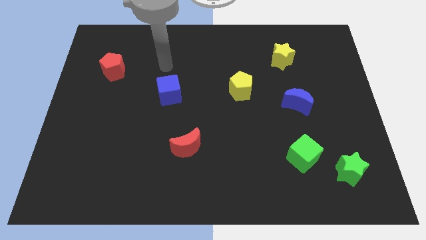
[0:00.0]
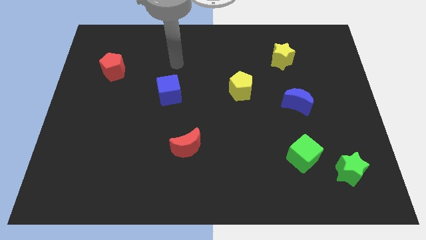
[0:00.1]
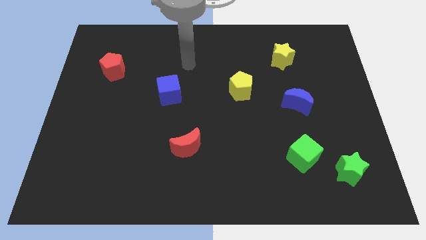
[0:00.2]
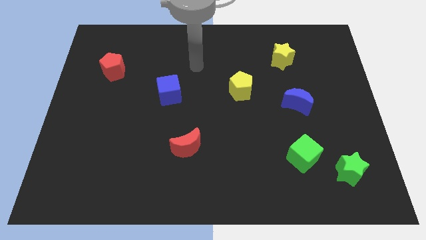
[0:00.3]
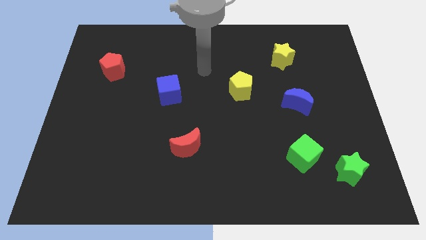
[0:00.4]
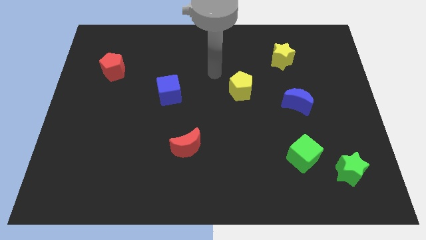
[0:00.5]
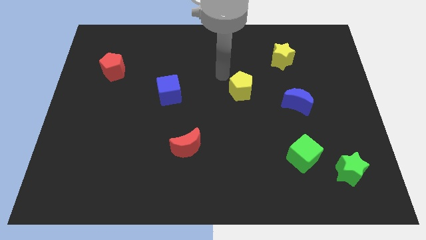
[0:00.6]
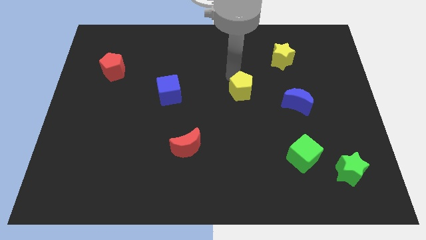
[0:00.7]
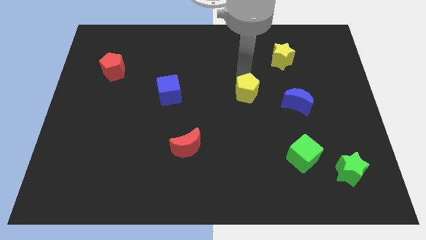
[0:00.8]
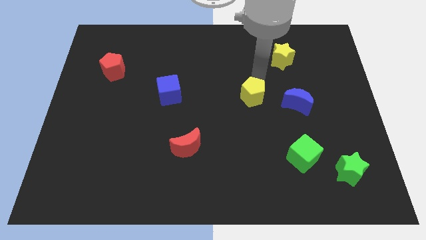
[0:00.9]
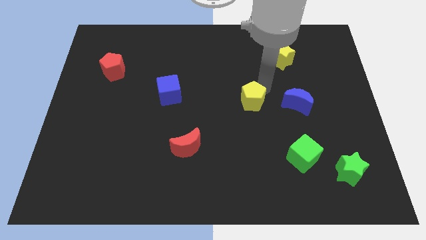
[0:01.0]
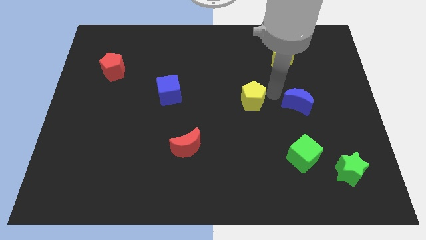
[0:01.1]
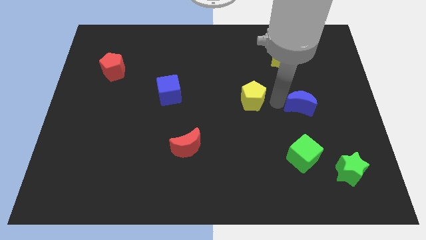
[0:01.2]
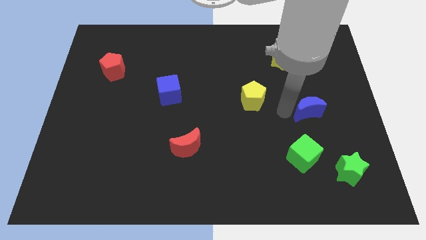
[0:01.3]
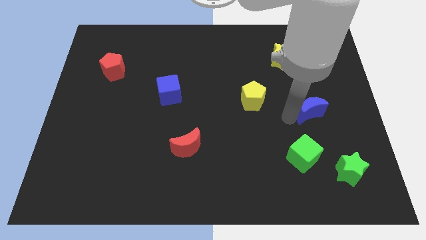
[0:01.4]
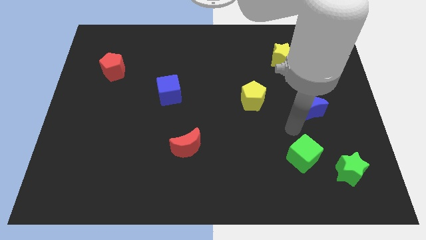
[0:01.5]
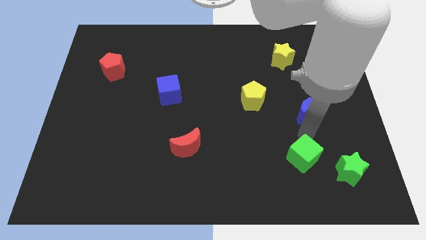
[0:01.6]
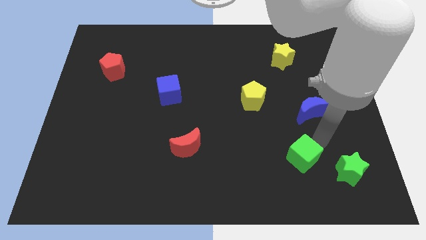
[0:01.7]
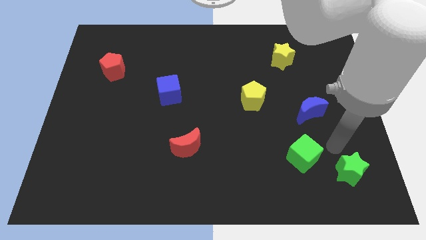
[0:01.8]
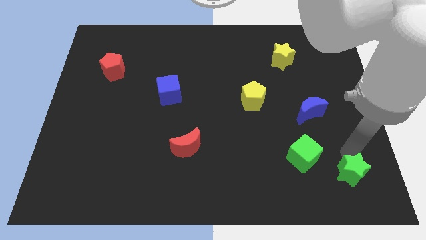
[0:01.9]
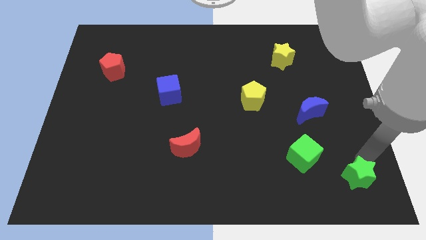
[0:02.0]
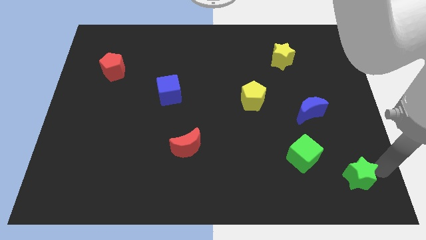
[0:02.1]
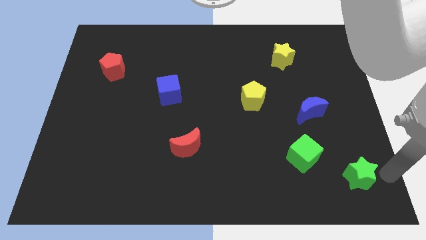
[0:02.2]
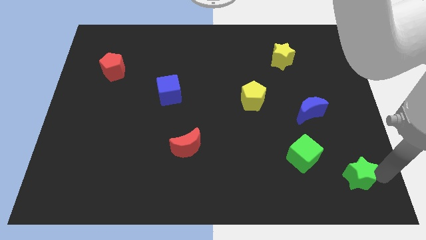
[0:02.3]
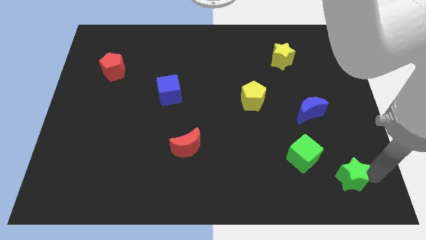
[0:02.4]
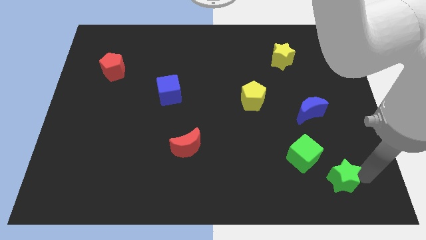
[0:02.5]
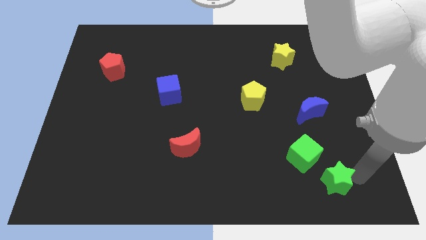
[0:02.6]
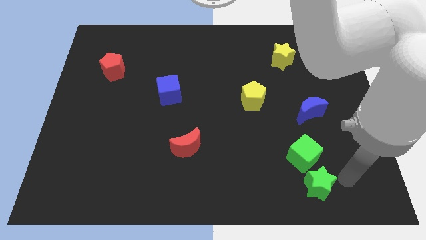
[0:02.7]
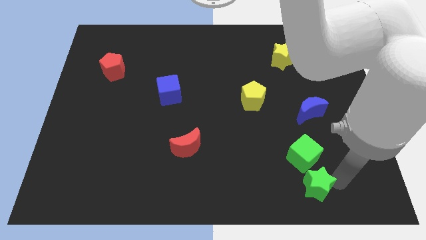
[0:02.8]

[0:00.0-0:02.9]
slightly push the green star to the left

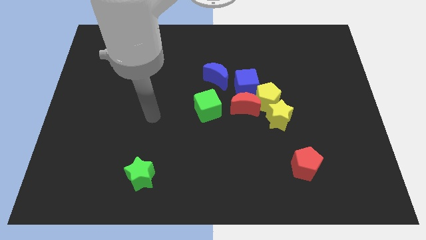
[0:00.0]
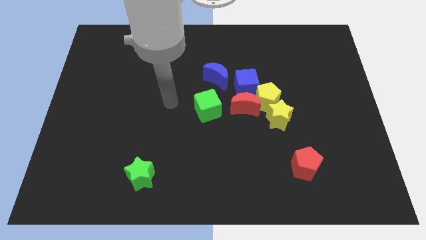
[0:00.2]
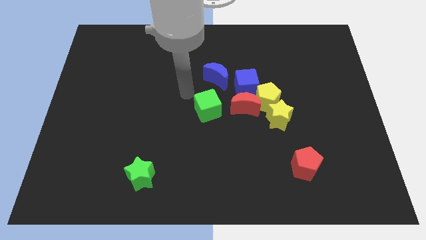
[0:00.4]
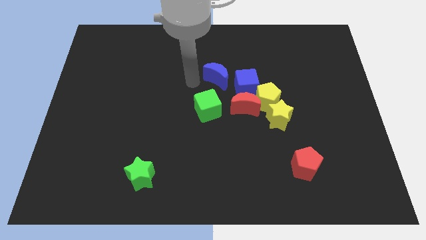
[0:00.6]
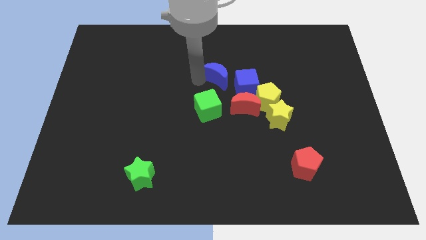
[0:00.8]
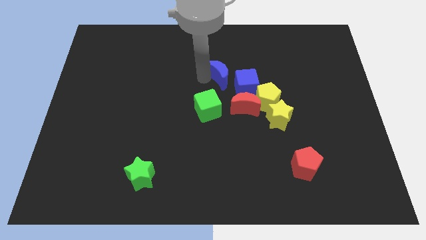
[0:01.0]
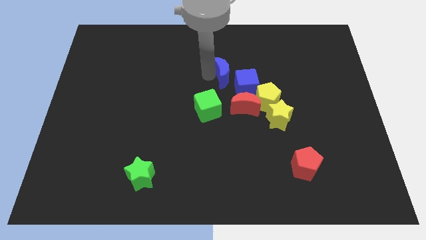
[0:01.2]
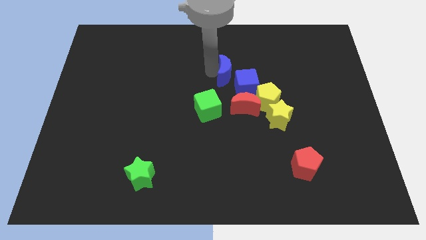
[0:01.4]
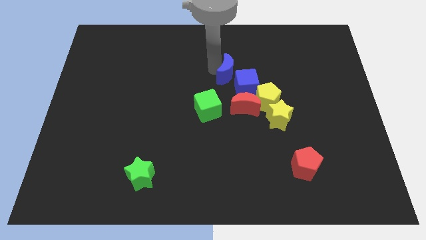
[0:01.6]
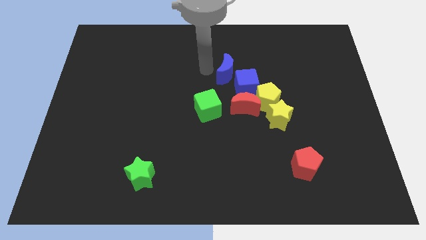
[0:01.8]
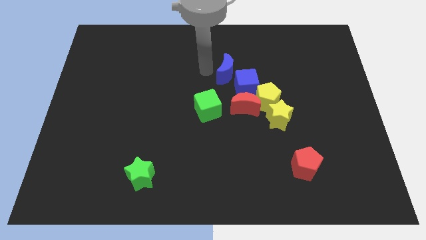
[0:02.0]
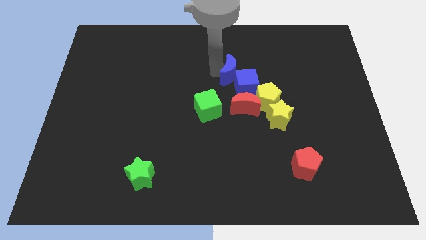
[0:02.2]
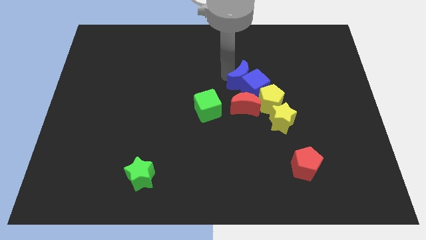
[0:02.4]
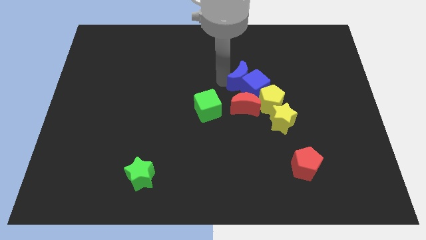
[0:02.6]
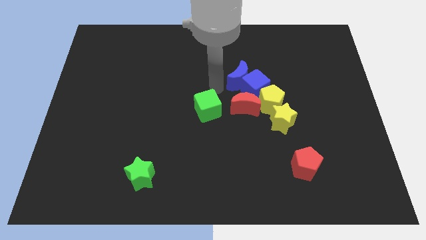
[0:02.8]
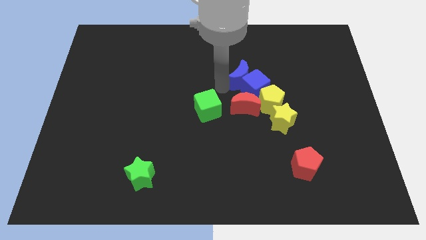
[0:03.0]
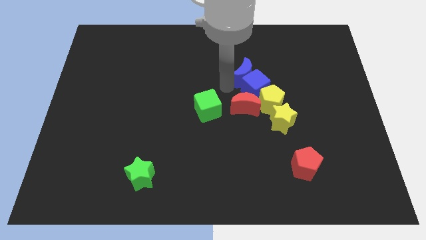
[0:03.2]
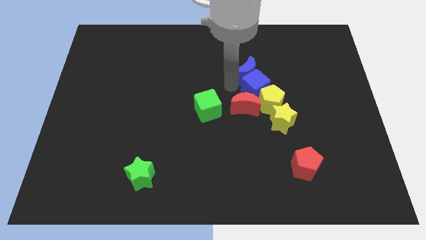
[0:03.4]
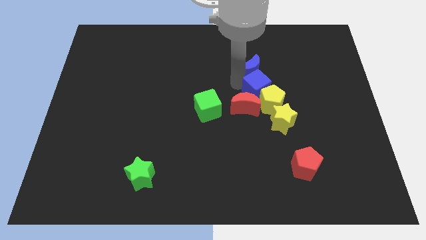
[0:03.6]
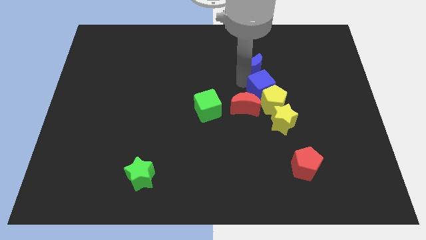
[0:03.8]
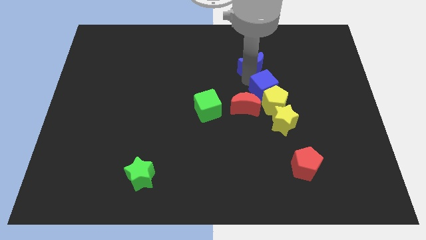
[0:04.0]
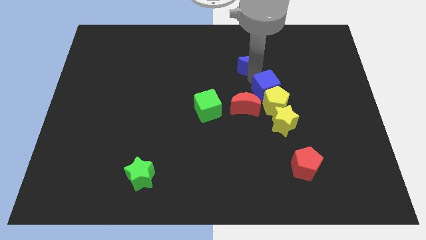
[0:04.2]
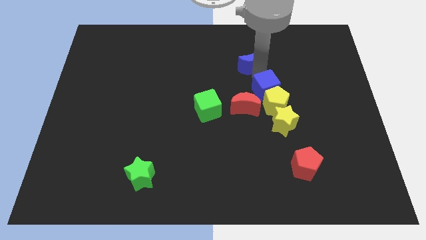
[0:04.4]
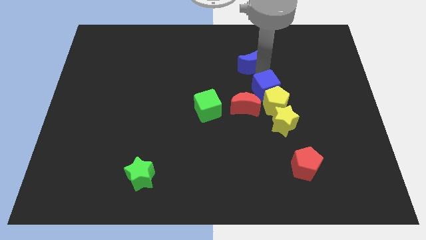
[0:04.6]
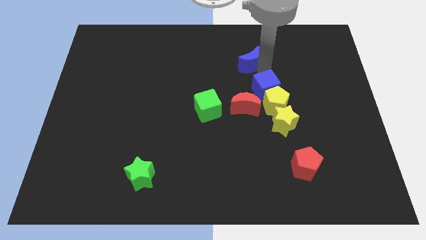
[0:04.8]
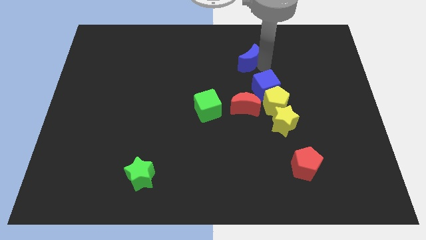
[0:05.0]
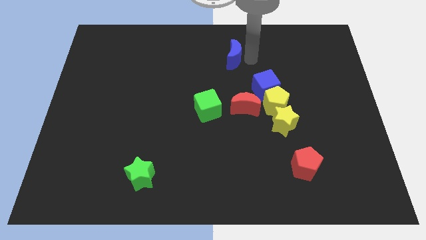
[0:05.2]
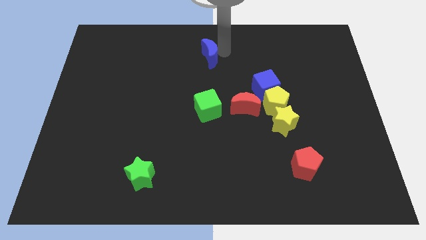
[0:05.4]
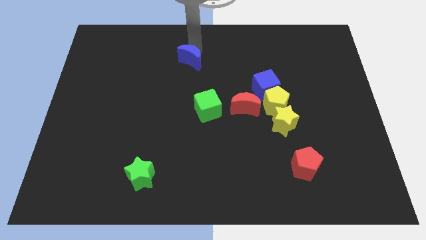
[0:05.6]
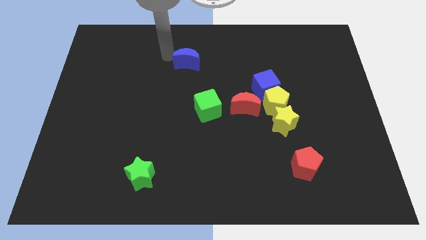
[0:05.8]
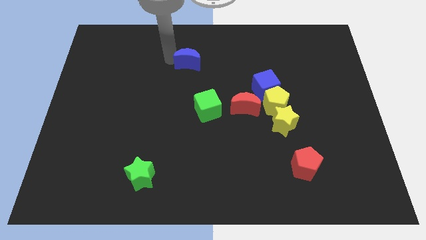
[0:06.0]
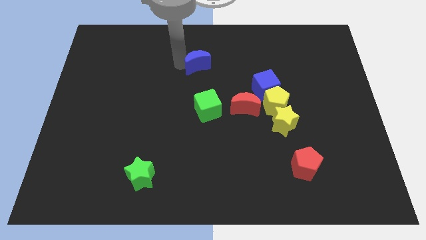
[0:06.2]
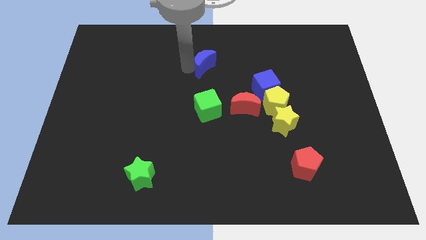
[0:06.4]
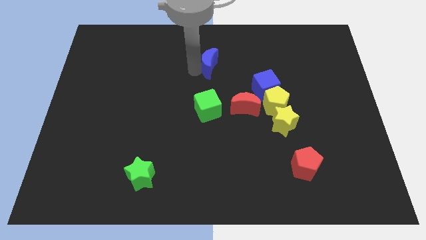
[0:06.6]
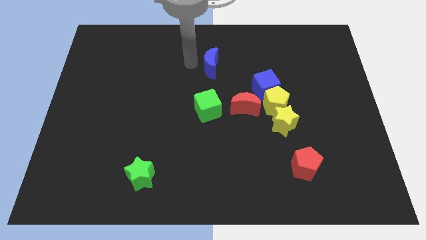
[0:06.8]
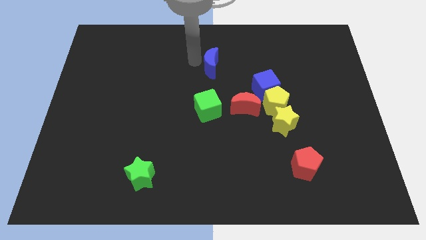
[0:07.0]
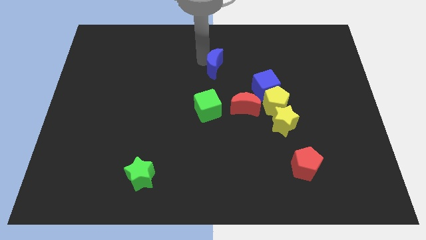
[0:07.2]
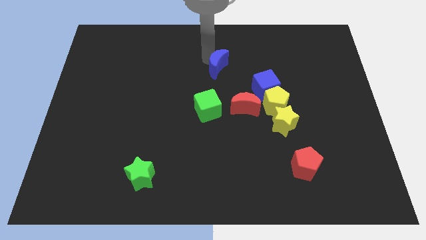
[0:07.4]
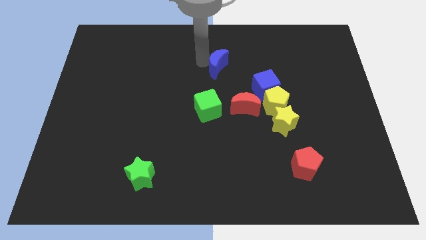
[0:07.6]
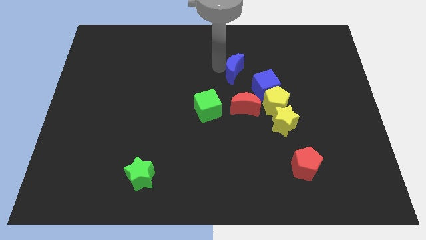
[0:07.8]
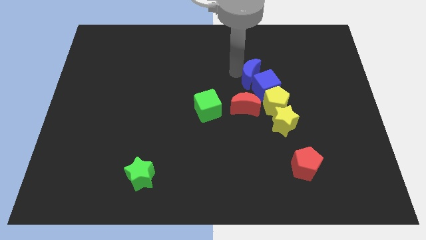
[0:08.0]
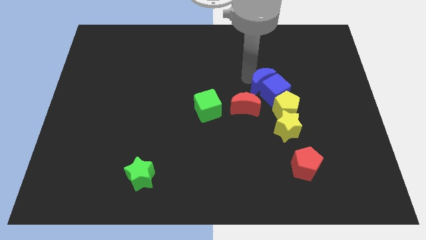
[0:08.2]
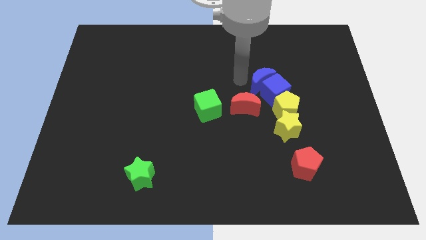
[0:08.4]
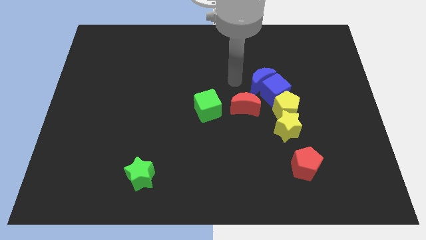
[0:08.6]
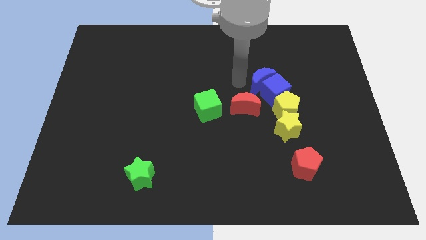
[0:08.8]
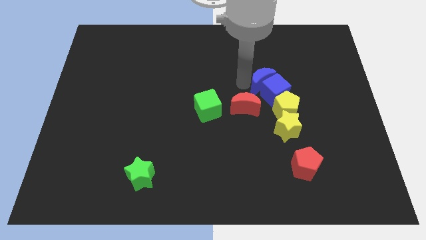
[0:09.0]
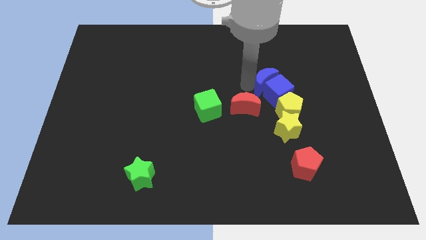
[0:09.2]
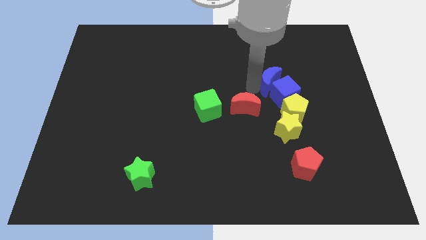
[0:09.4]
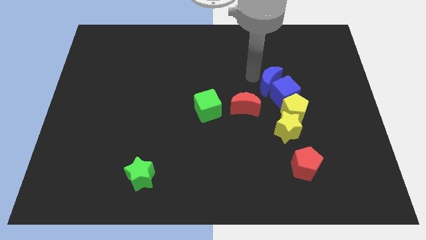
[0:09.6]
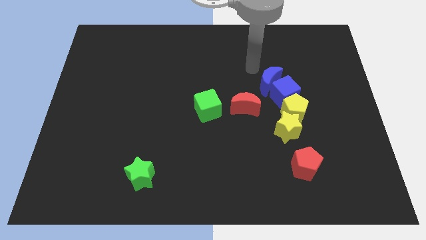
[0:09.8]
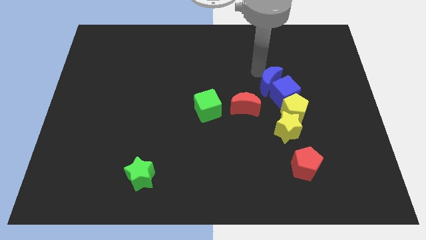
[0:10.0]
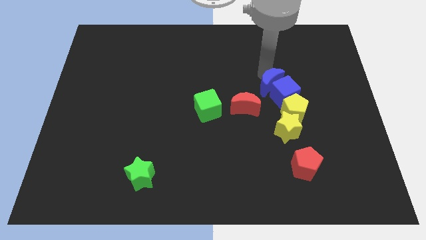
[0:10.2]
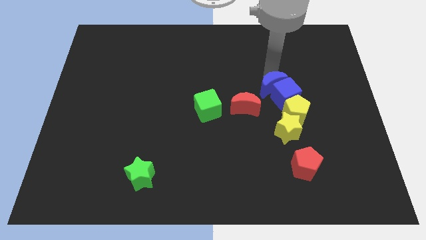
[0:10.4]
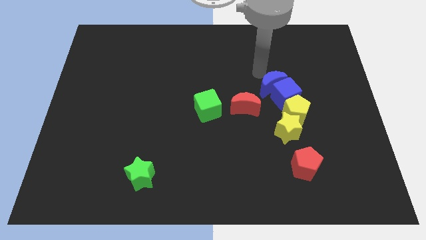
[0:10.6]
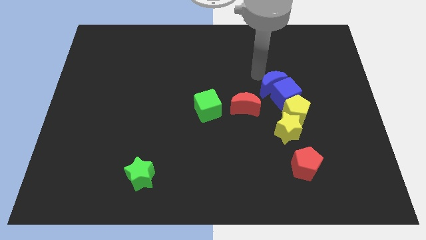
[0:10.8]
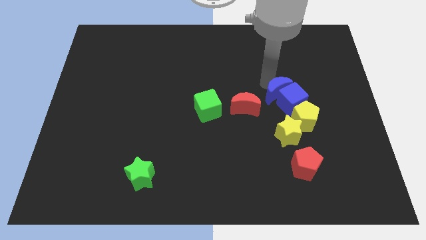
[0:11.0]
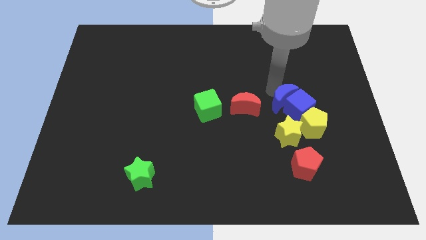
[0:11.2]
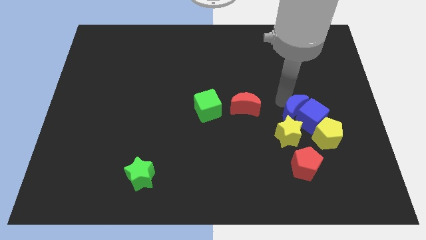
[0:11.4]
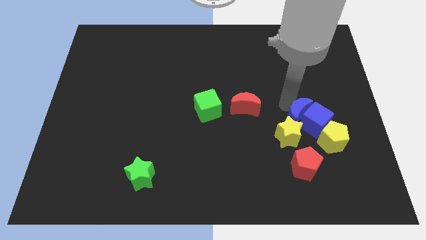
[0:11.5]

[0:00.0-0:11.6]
push the blue moon down and right diagonally
